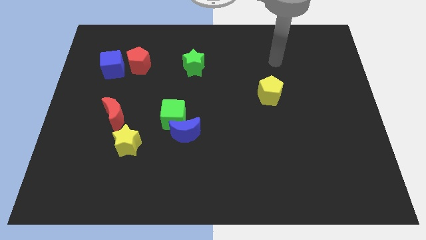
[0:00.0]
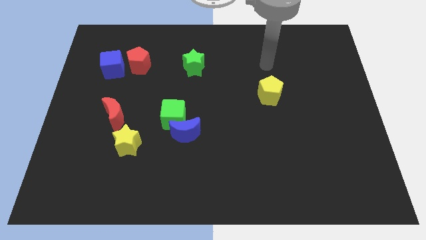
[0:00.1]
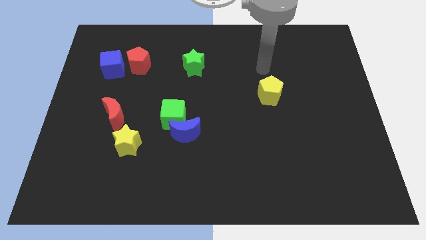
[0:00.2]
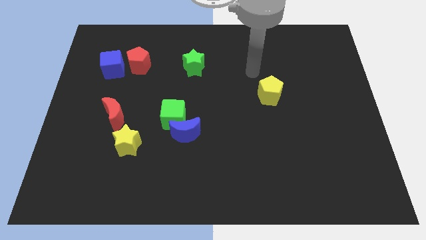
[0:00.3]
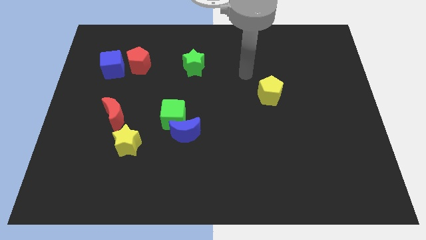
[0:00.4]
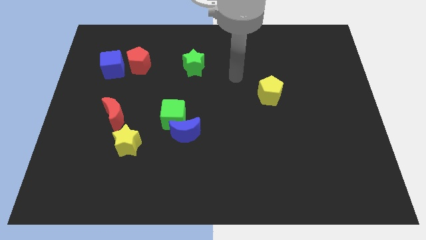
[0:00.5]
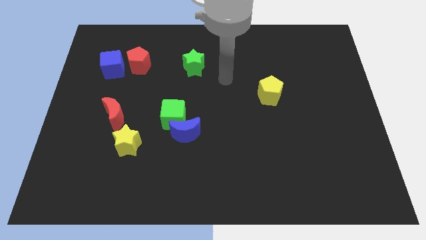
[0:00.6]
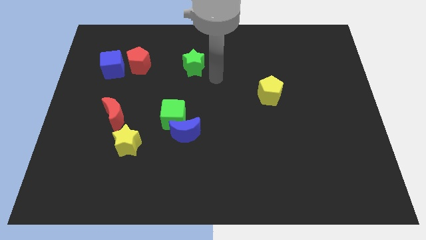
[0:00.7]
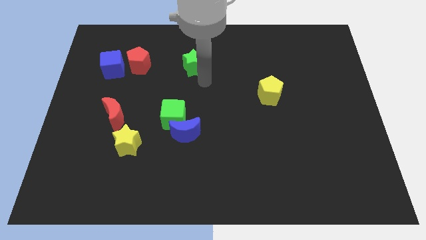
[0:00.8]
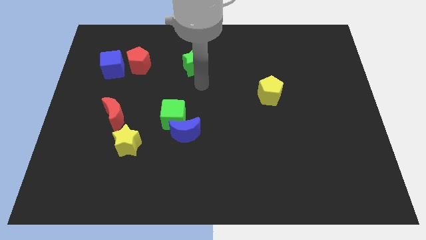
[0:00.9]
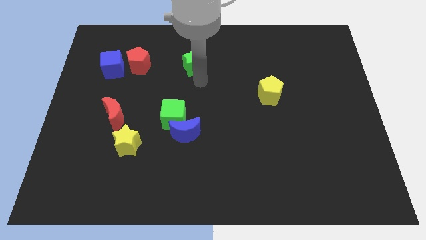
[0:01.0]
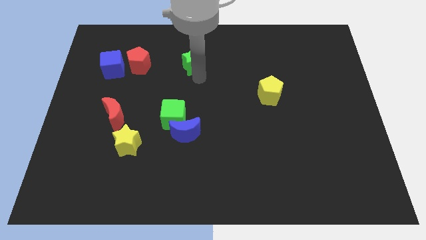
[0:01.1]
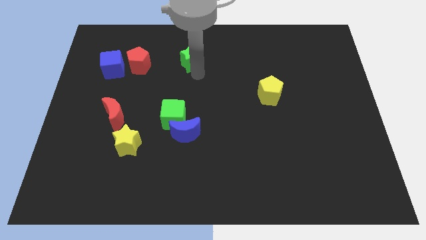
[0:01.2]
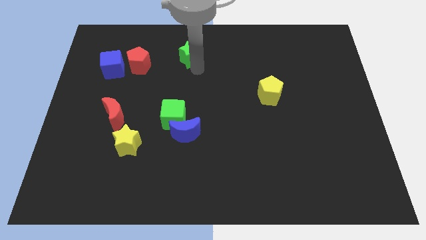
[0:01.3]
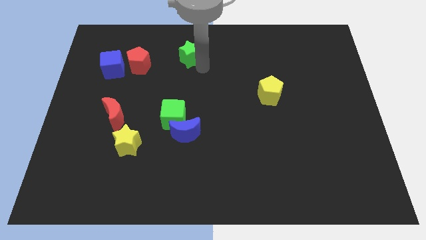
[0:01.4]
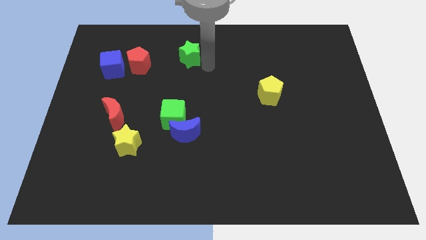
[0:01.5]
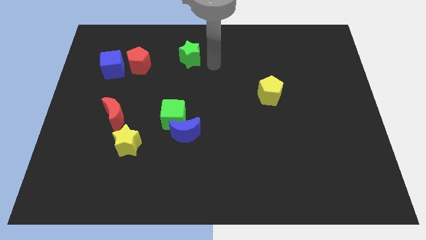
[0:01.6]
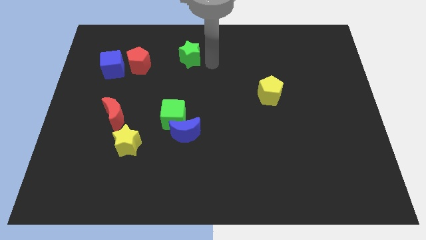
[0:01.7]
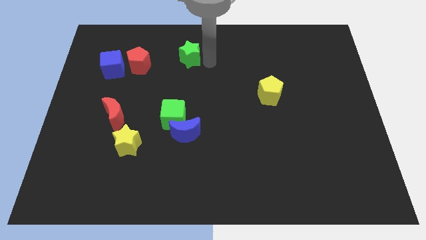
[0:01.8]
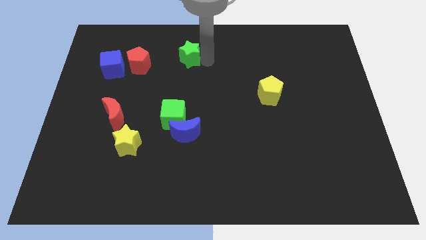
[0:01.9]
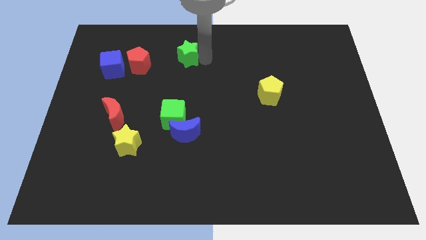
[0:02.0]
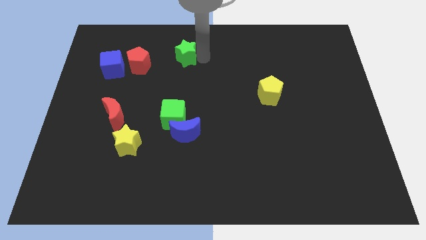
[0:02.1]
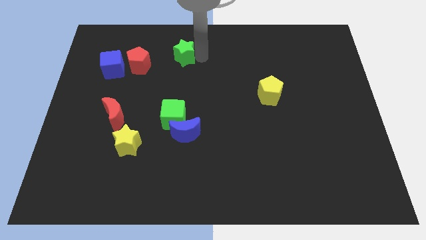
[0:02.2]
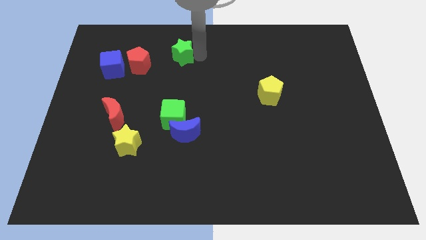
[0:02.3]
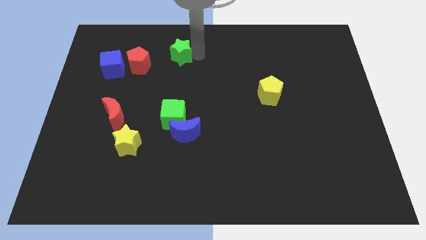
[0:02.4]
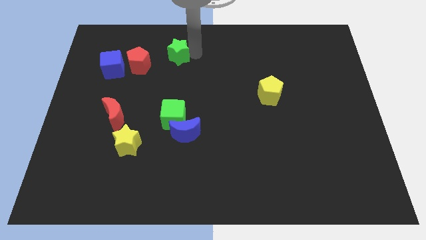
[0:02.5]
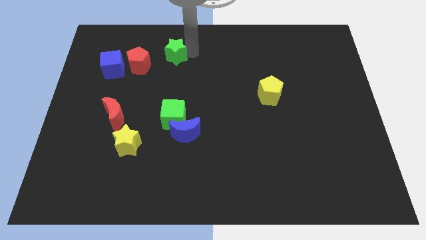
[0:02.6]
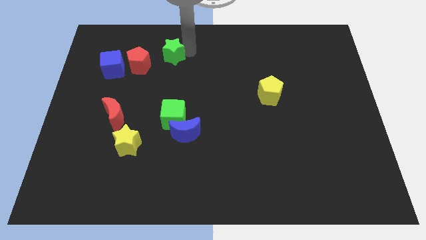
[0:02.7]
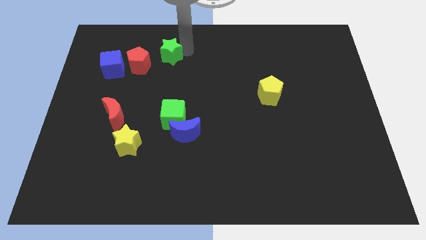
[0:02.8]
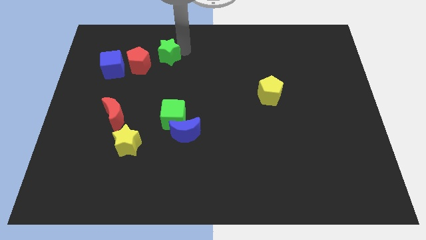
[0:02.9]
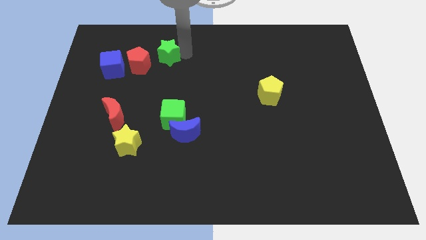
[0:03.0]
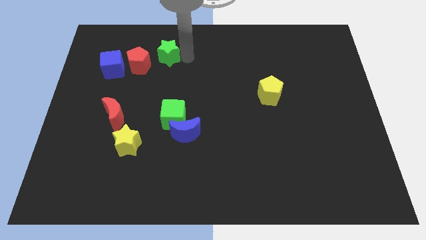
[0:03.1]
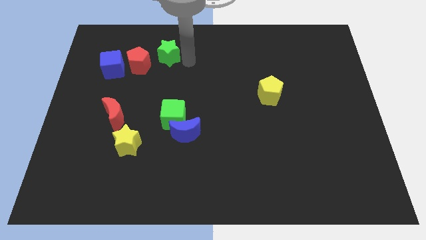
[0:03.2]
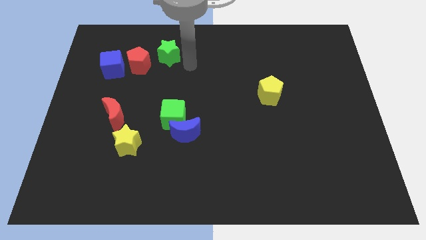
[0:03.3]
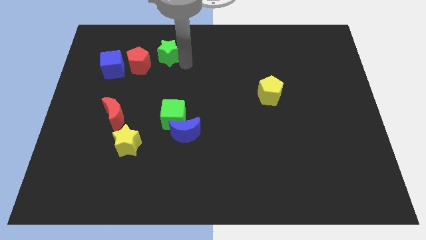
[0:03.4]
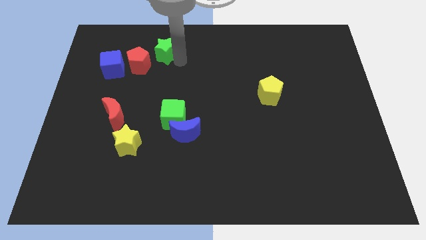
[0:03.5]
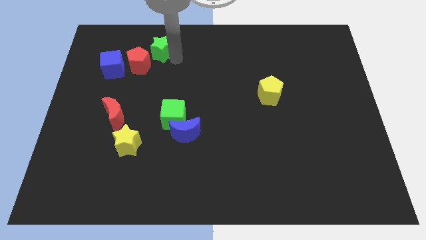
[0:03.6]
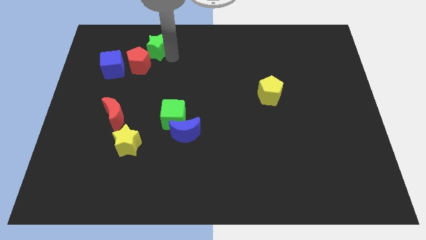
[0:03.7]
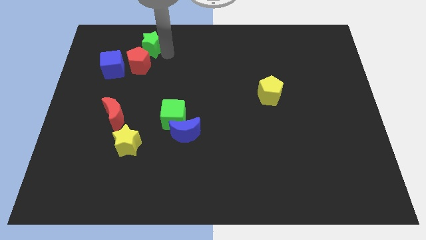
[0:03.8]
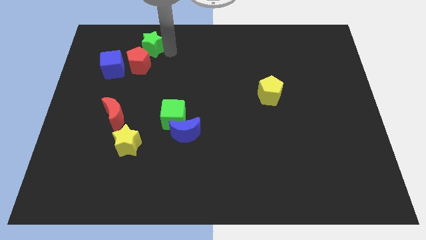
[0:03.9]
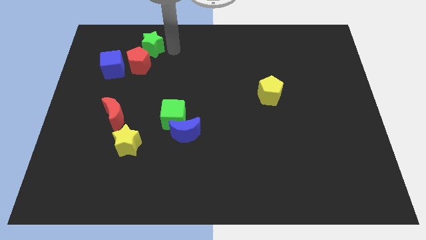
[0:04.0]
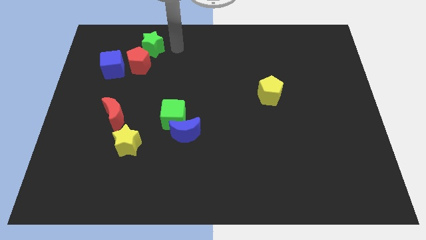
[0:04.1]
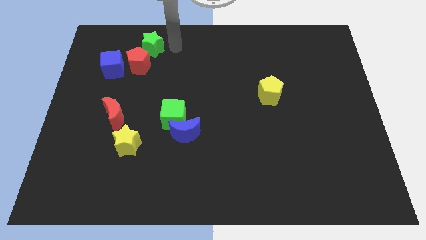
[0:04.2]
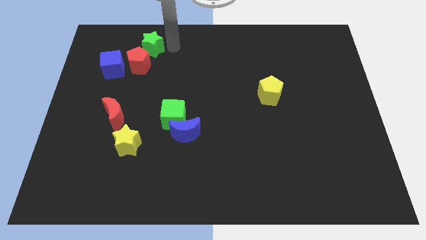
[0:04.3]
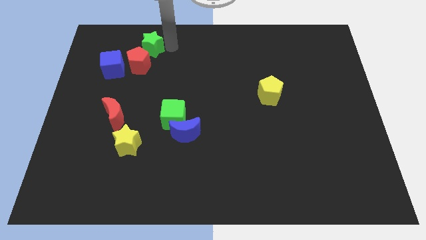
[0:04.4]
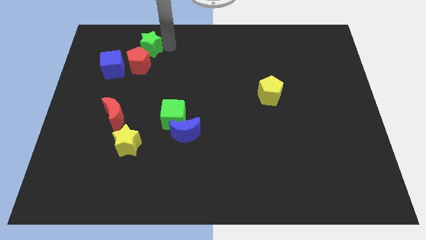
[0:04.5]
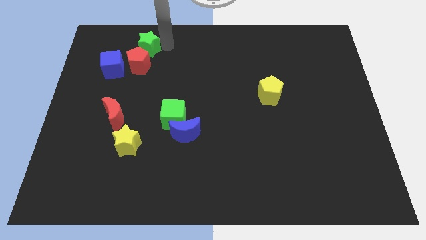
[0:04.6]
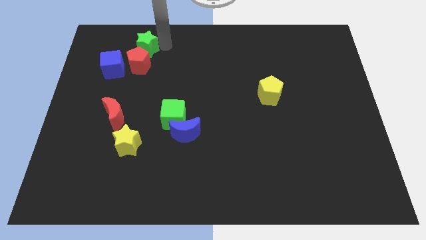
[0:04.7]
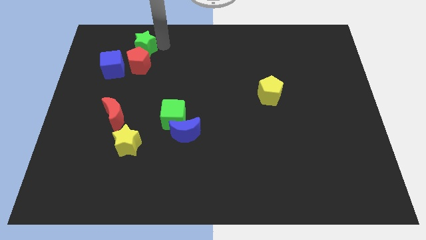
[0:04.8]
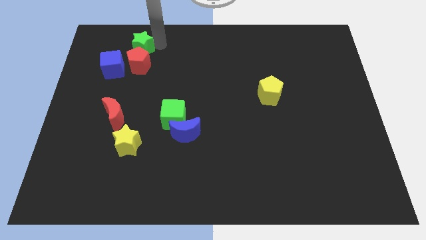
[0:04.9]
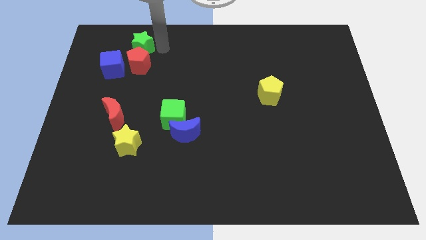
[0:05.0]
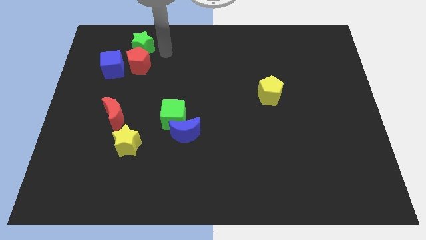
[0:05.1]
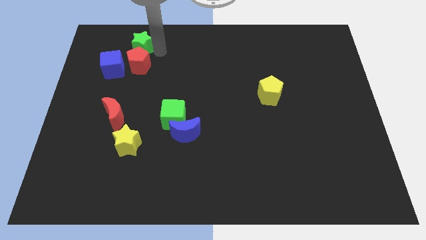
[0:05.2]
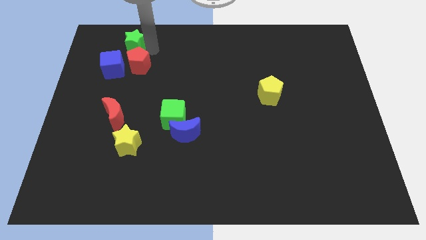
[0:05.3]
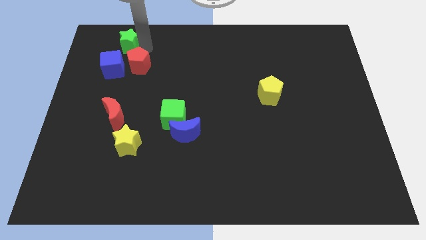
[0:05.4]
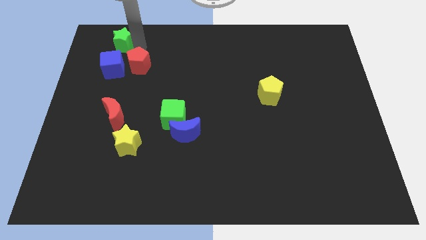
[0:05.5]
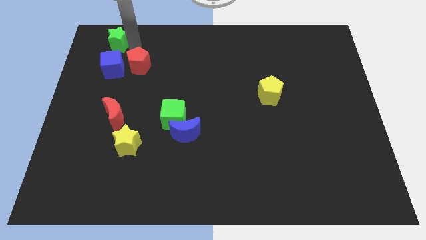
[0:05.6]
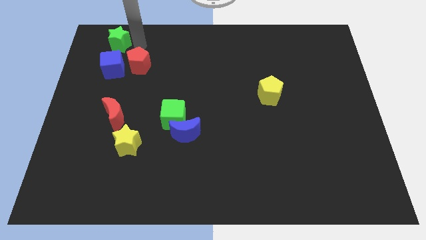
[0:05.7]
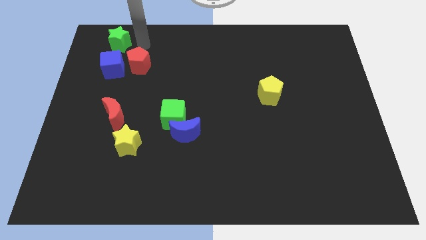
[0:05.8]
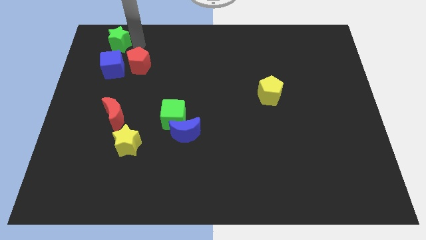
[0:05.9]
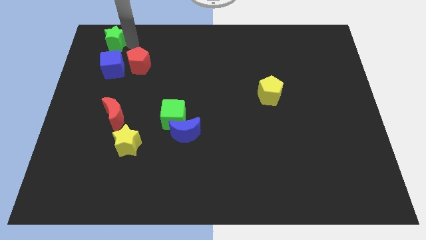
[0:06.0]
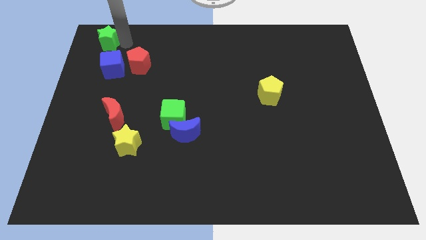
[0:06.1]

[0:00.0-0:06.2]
push the green star to the top left of the board
